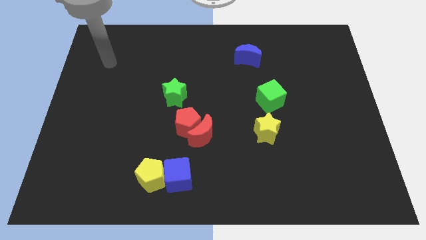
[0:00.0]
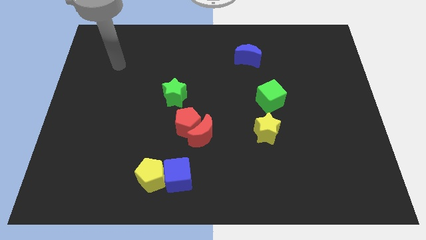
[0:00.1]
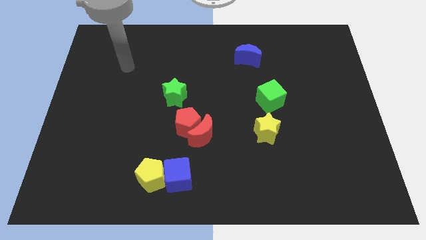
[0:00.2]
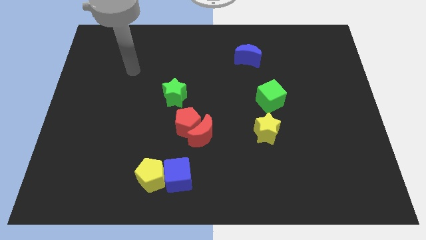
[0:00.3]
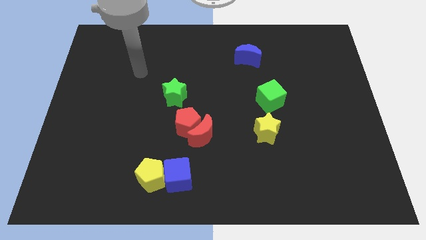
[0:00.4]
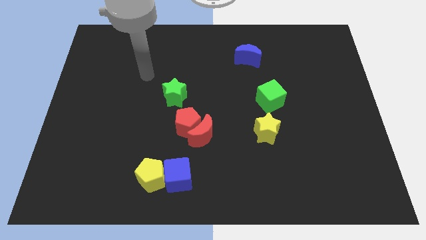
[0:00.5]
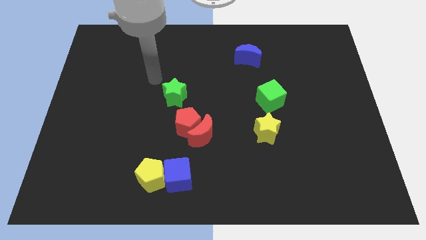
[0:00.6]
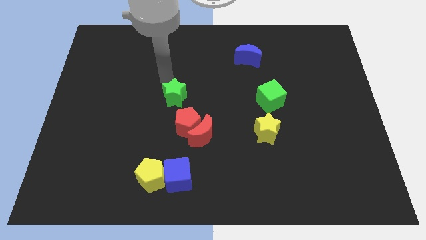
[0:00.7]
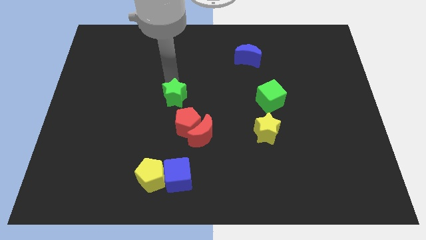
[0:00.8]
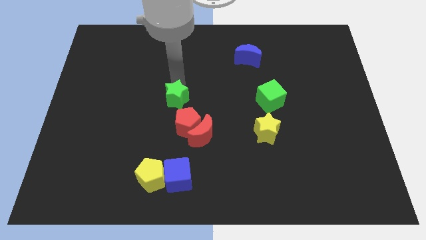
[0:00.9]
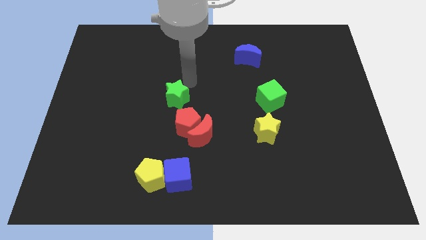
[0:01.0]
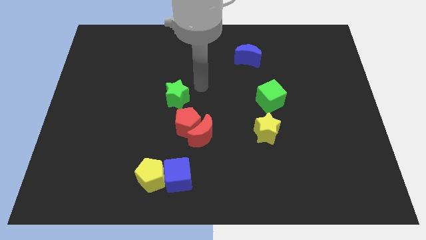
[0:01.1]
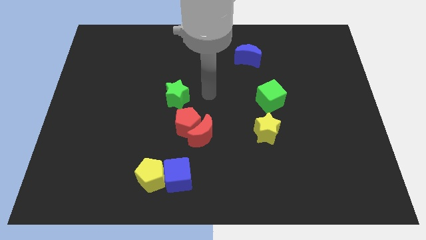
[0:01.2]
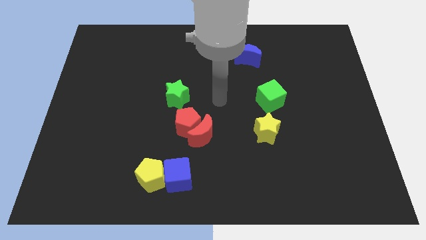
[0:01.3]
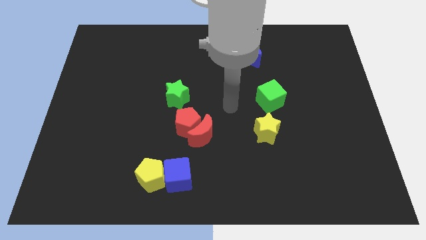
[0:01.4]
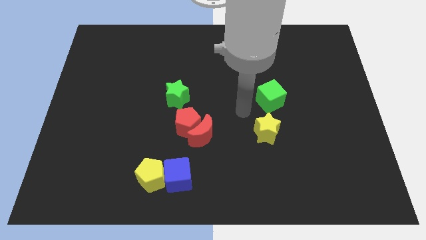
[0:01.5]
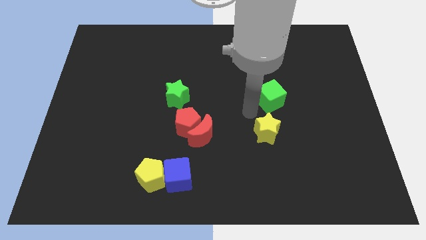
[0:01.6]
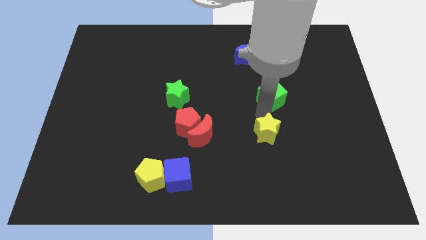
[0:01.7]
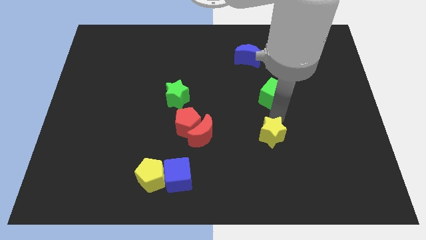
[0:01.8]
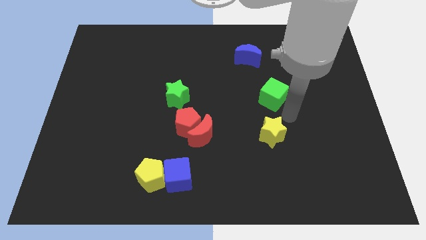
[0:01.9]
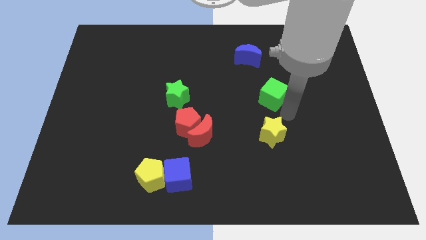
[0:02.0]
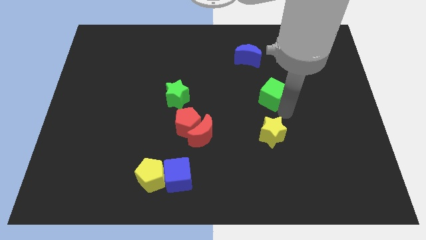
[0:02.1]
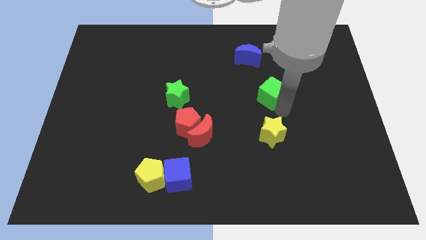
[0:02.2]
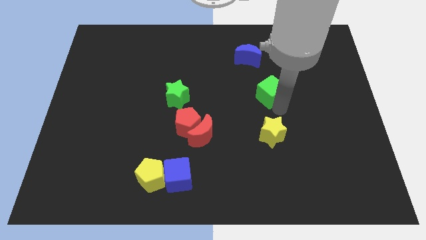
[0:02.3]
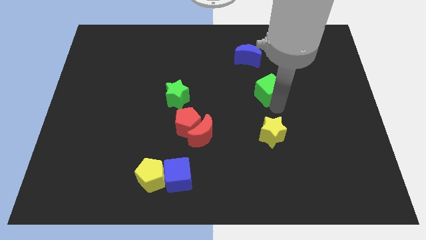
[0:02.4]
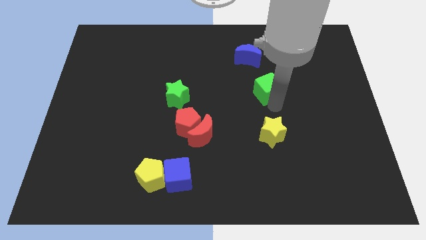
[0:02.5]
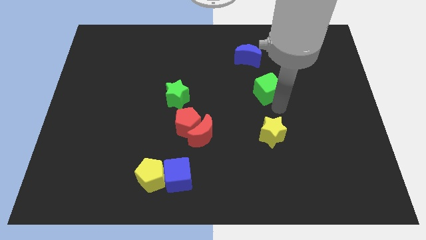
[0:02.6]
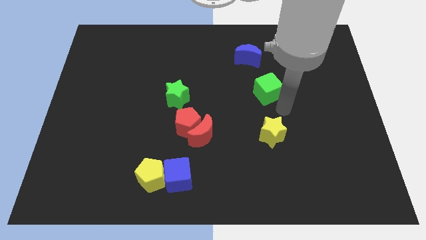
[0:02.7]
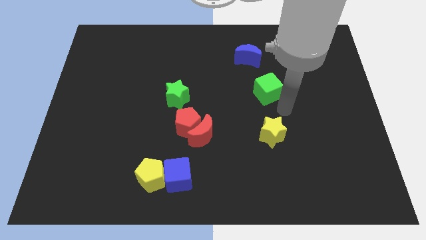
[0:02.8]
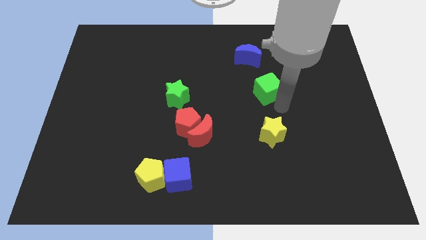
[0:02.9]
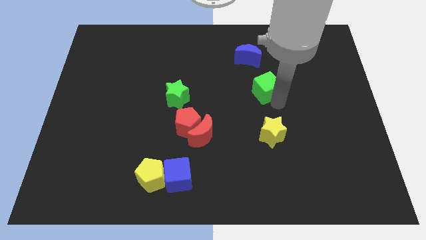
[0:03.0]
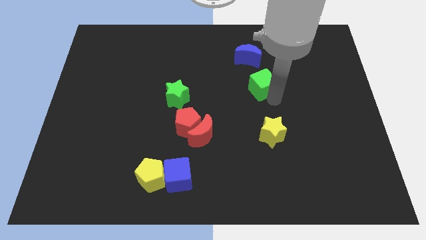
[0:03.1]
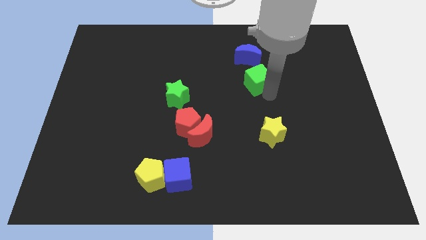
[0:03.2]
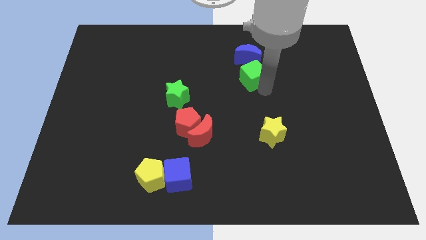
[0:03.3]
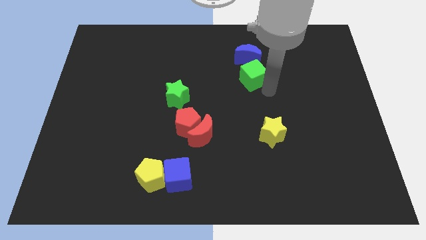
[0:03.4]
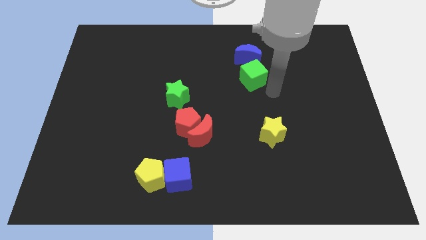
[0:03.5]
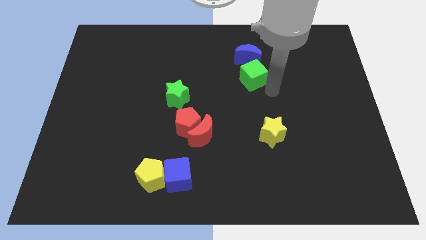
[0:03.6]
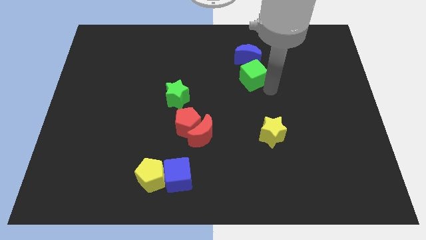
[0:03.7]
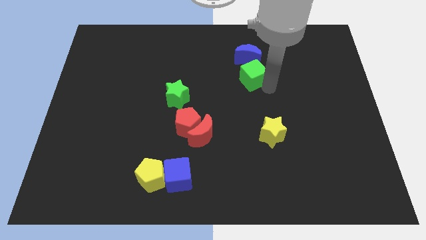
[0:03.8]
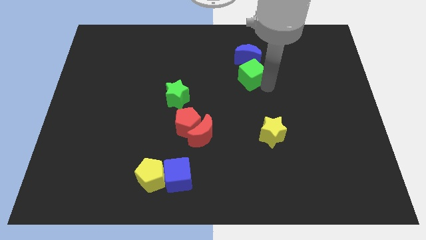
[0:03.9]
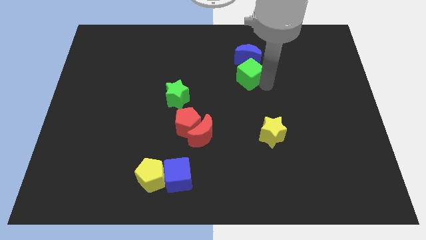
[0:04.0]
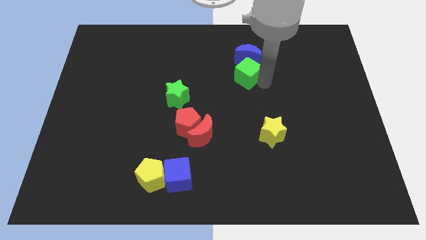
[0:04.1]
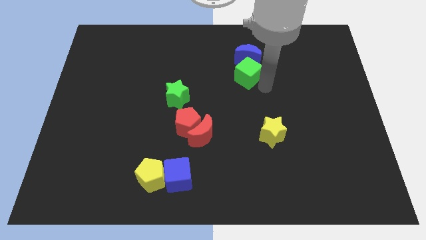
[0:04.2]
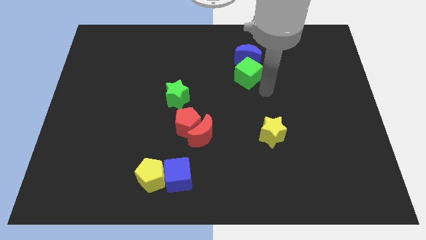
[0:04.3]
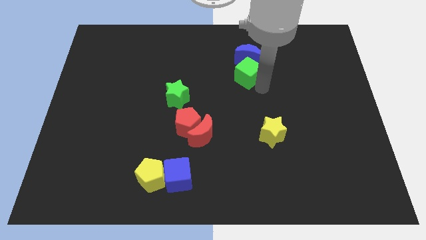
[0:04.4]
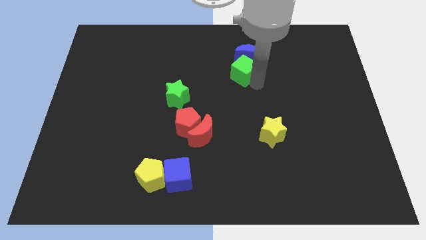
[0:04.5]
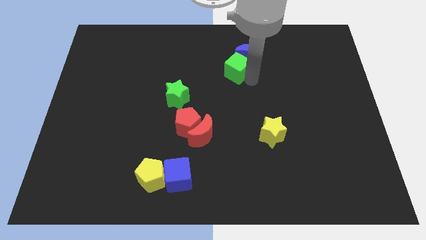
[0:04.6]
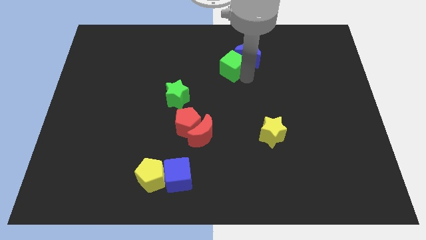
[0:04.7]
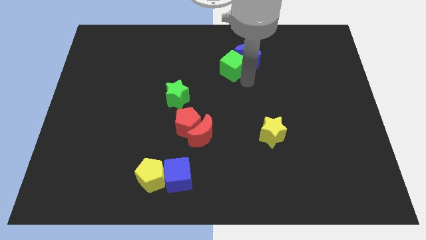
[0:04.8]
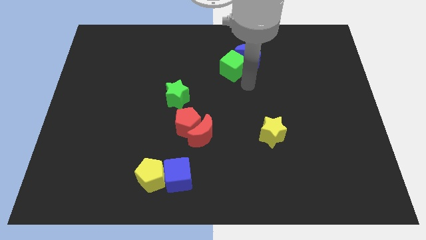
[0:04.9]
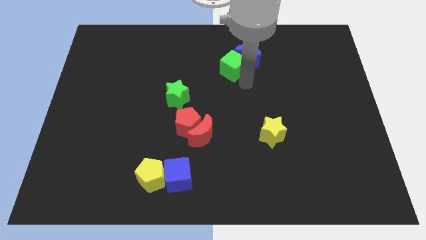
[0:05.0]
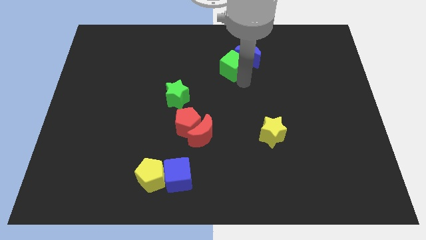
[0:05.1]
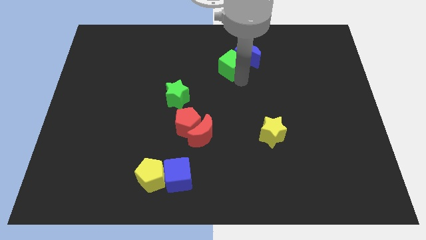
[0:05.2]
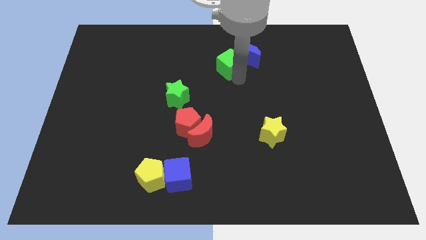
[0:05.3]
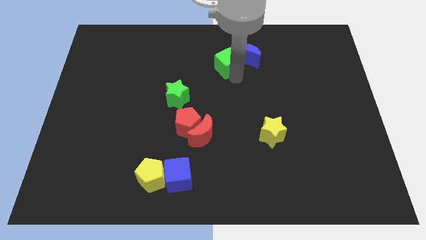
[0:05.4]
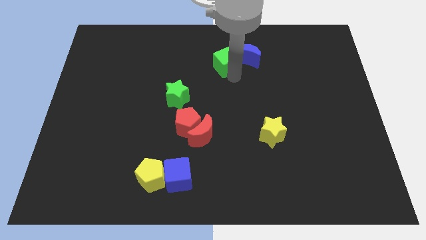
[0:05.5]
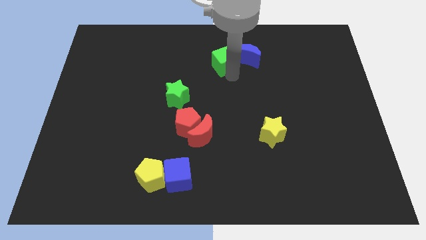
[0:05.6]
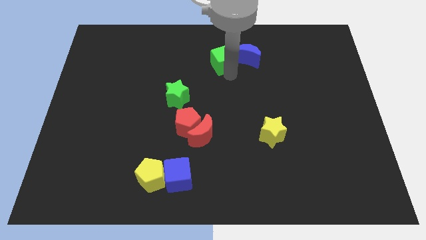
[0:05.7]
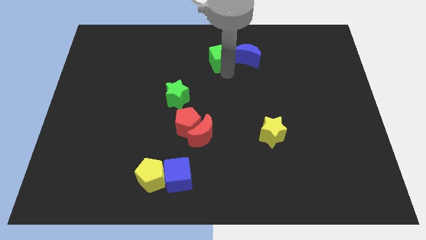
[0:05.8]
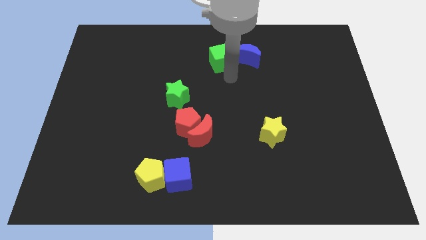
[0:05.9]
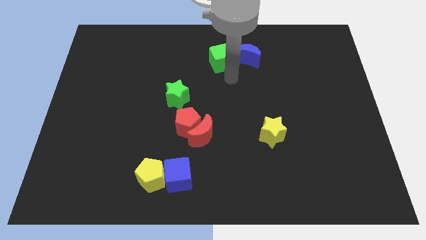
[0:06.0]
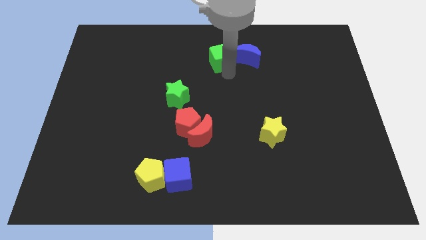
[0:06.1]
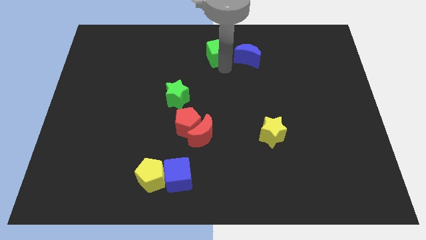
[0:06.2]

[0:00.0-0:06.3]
push the green cube to the top
